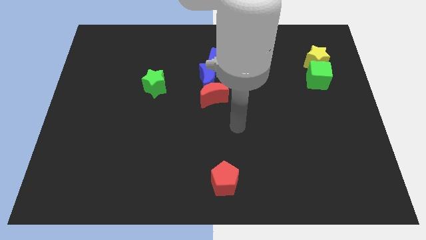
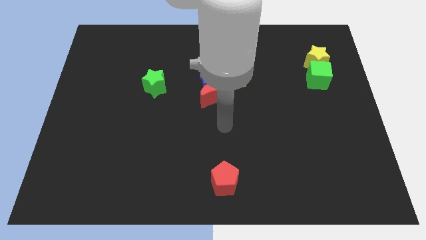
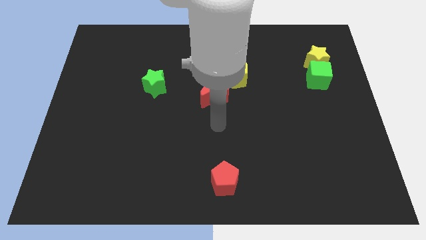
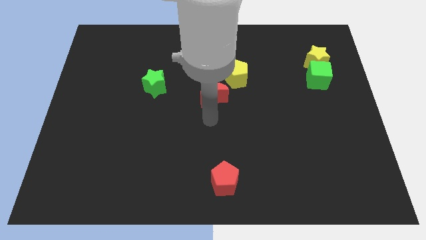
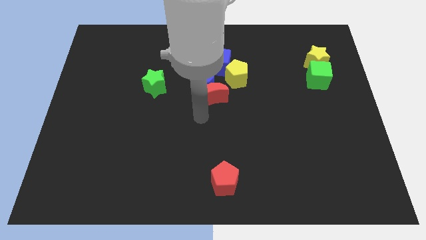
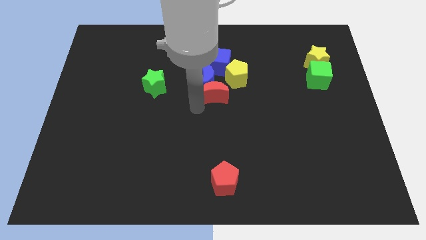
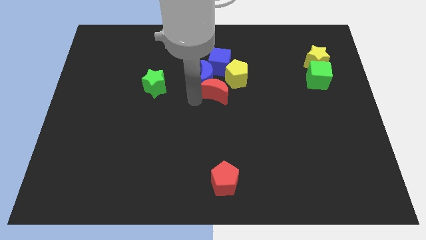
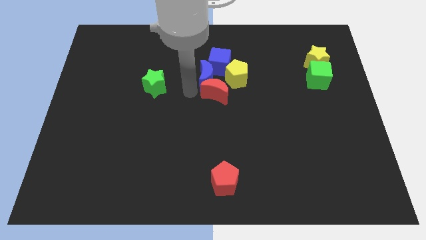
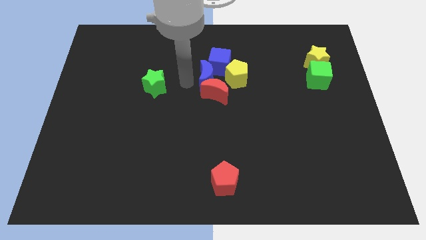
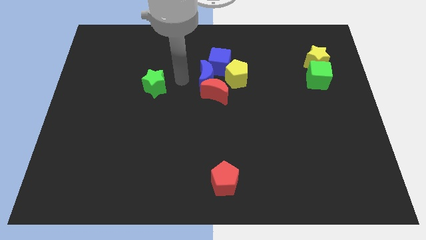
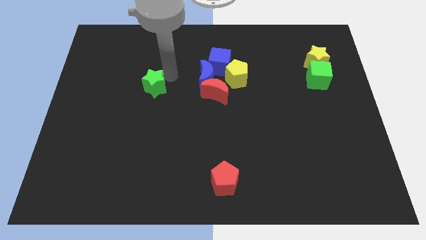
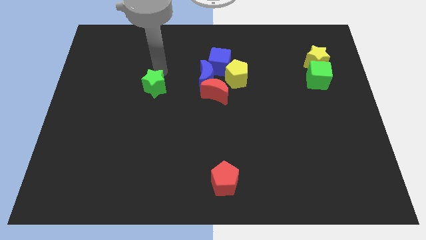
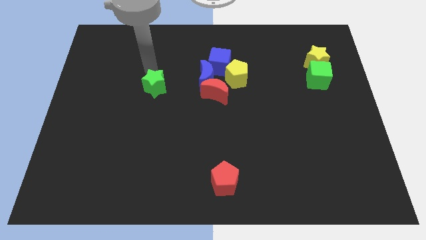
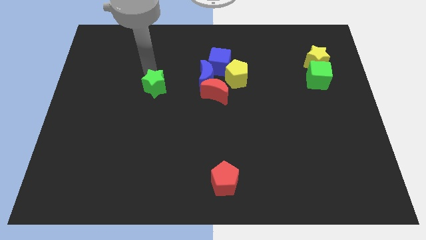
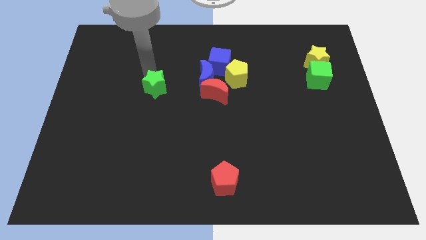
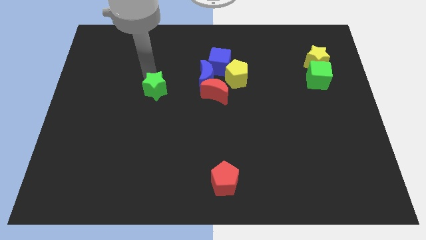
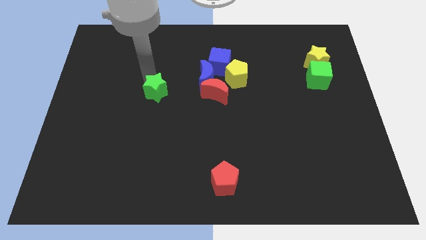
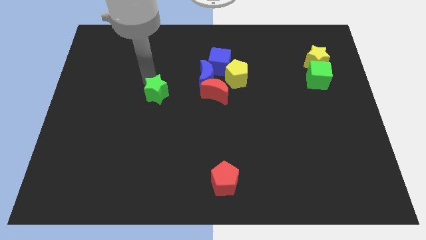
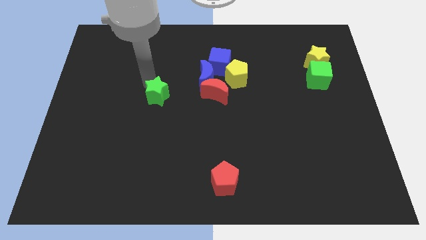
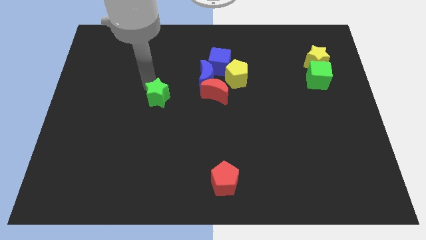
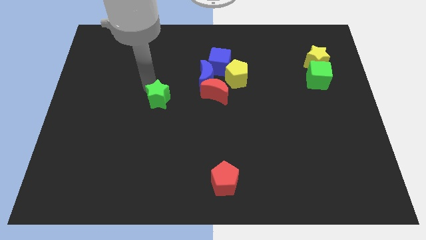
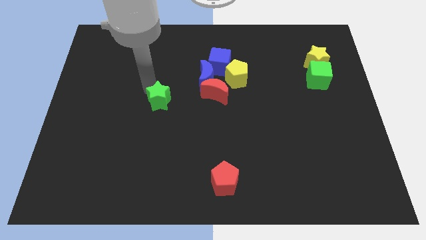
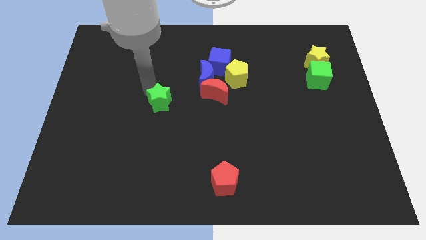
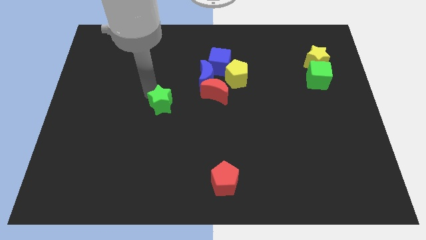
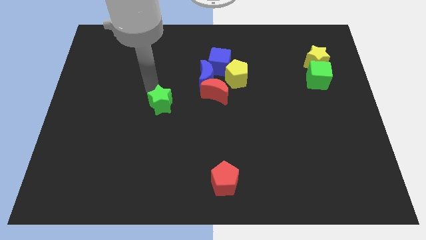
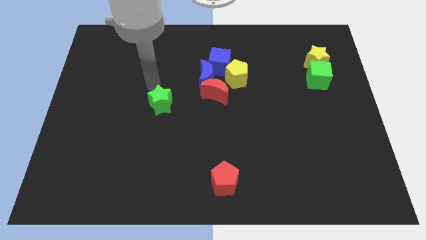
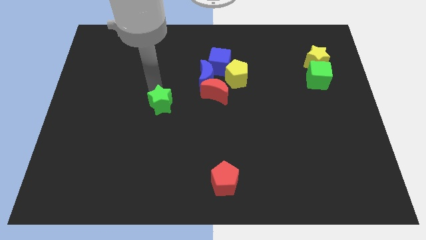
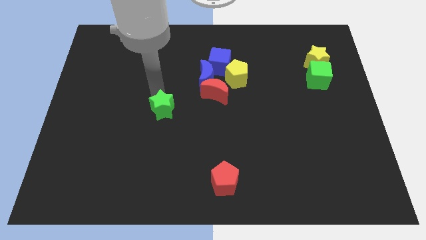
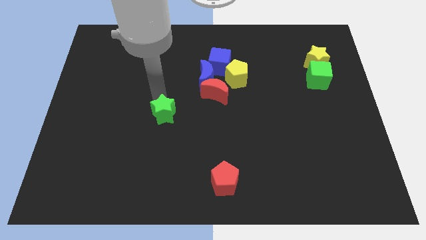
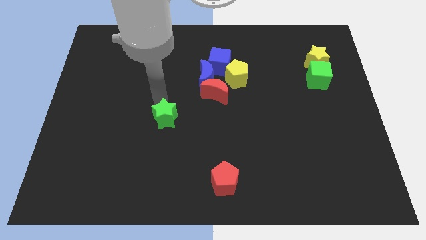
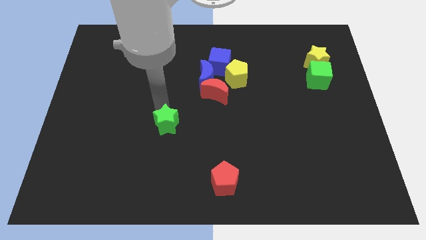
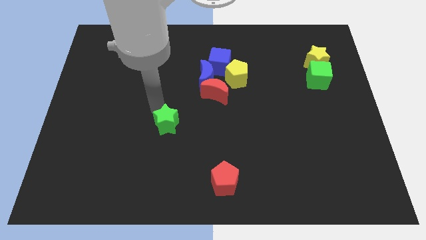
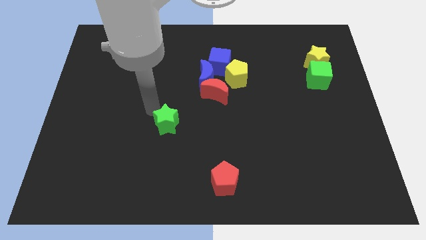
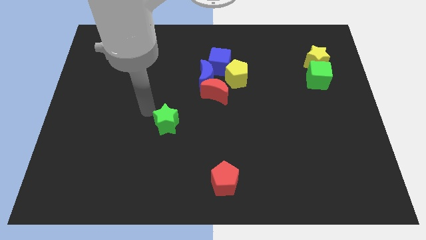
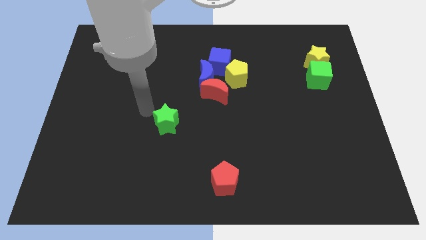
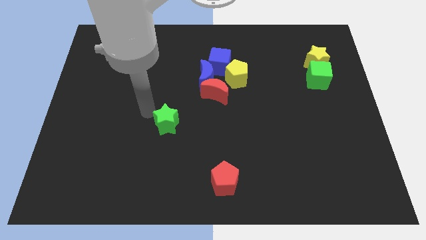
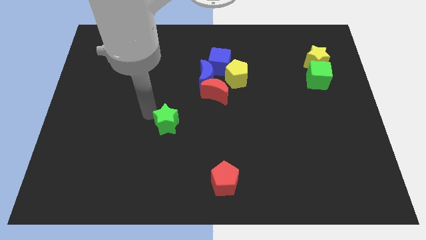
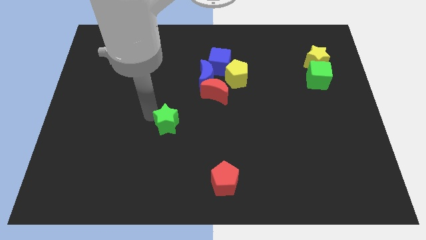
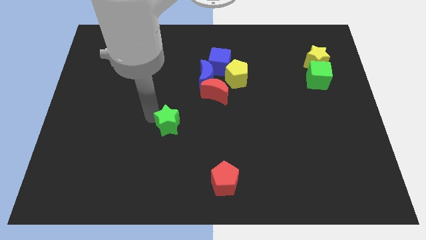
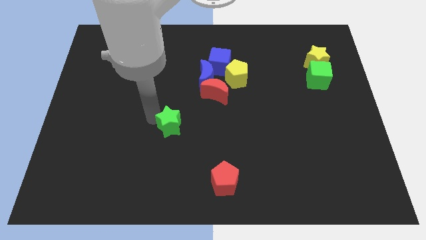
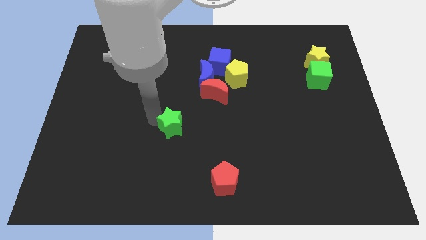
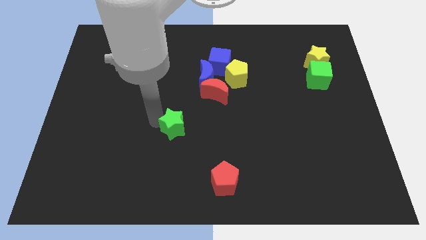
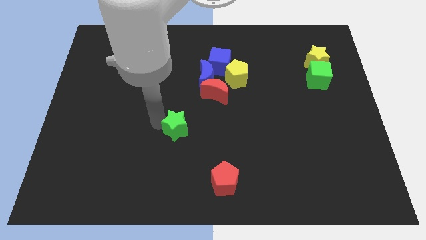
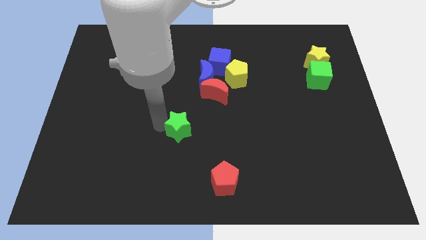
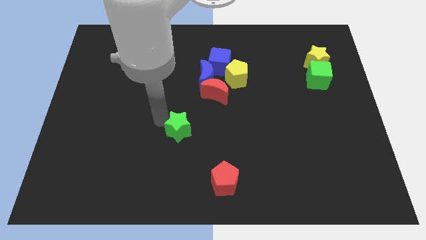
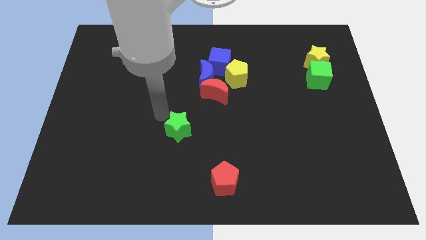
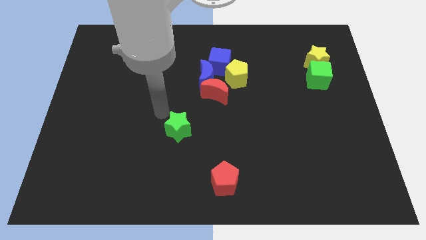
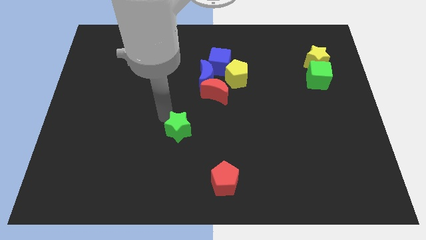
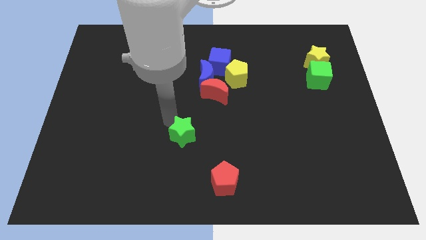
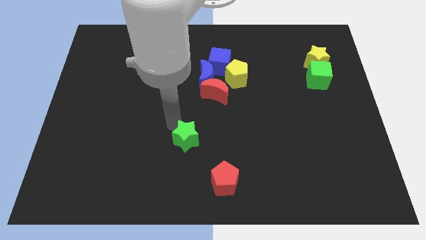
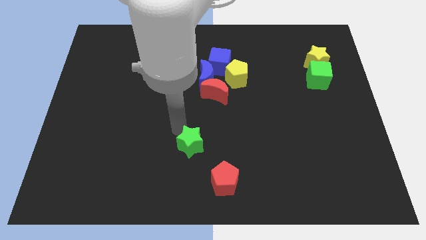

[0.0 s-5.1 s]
slide the green star to the top left side of the red pentagon

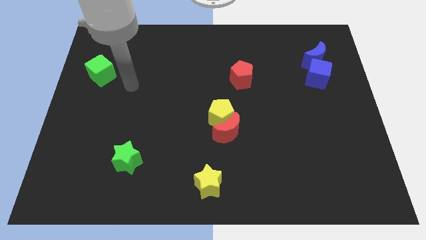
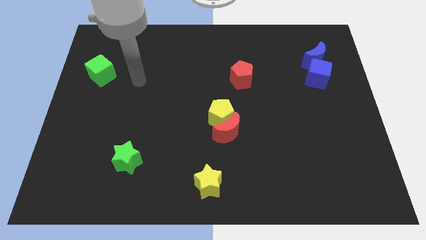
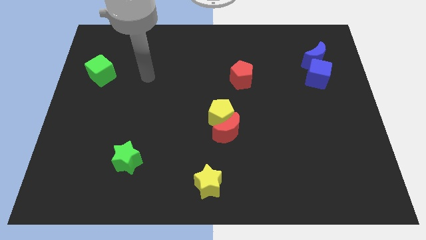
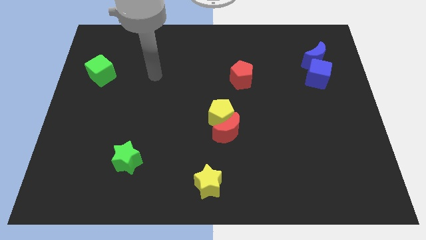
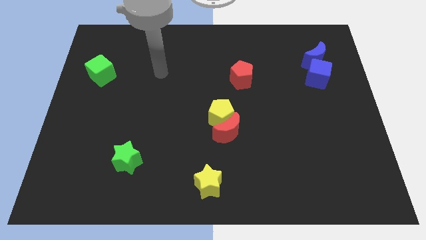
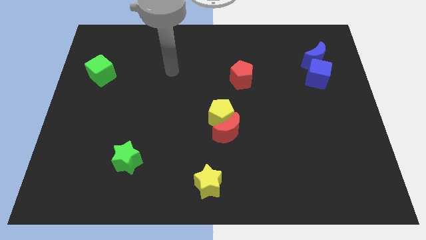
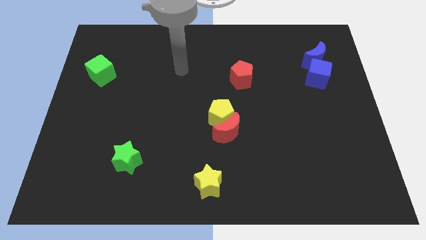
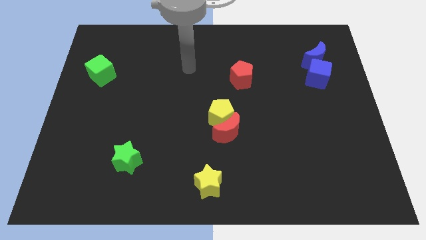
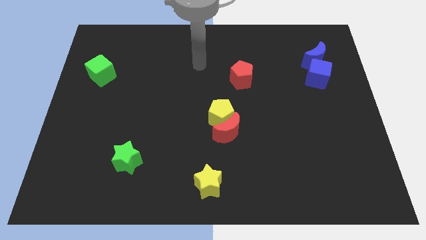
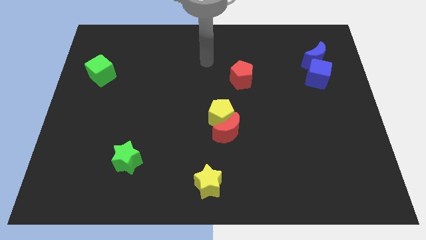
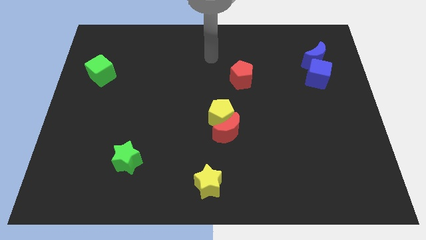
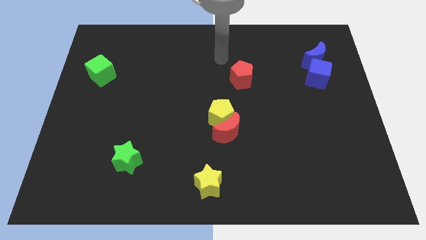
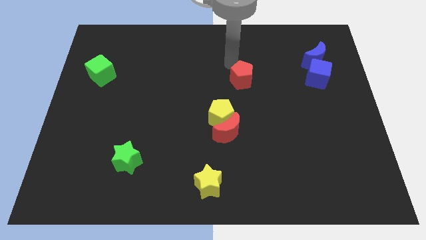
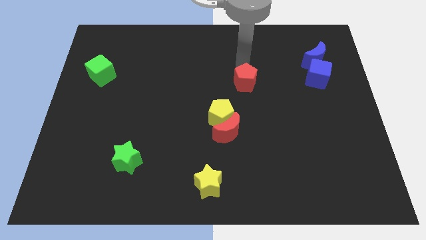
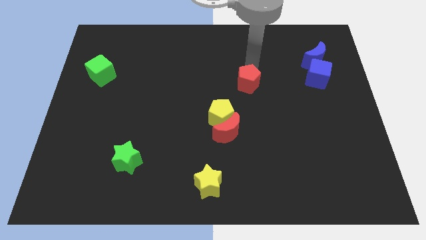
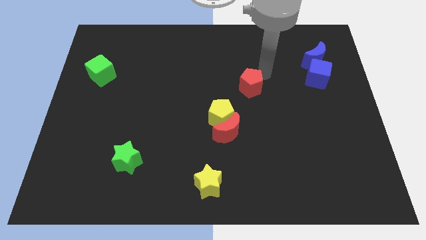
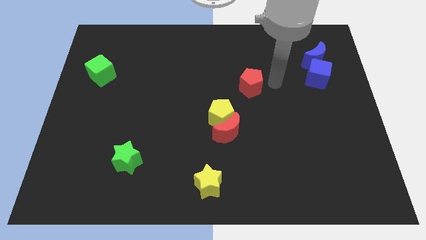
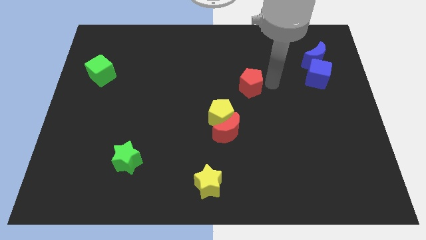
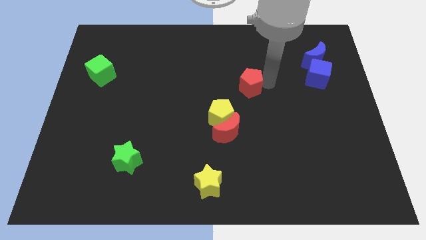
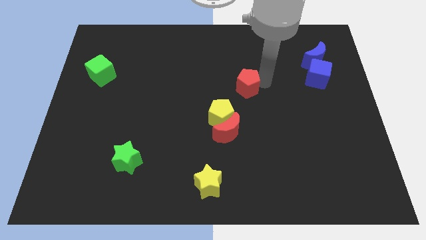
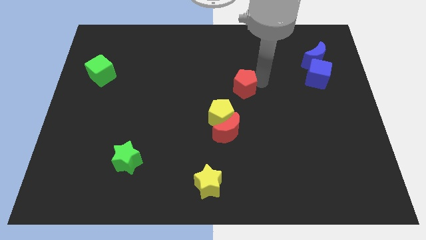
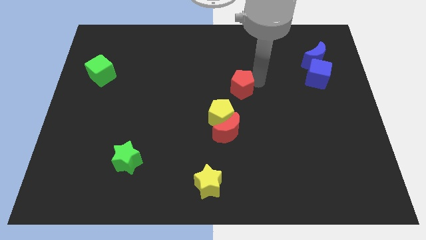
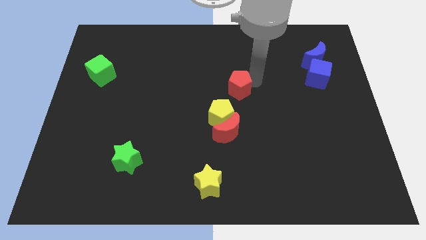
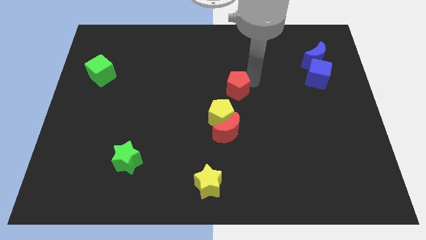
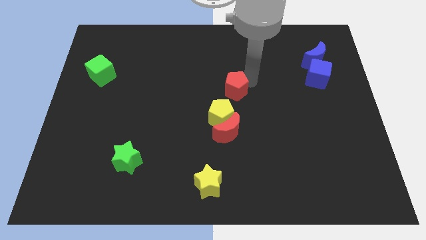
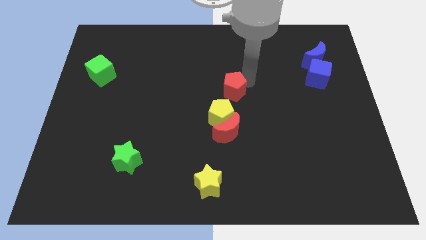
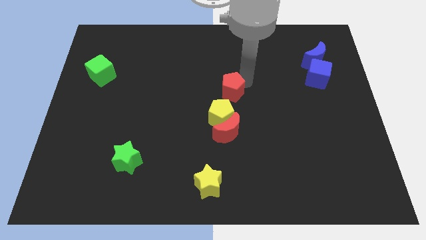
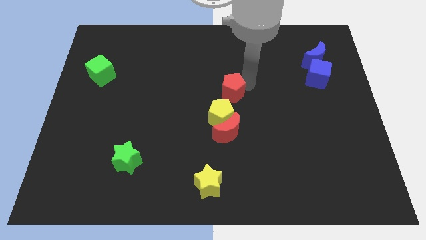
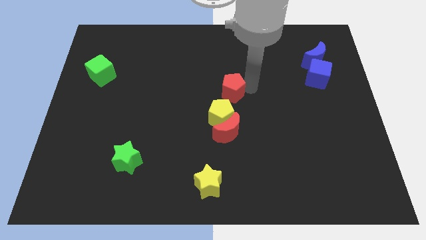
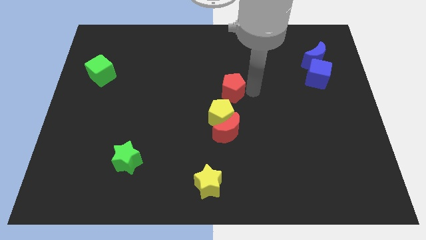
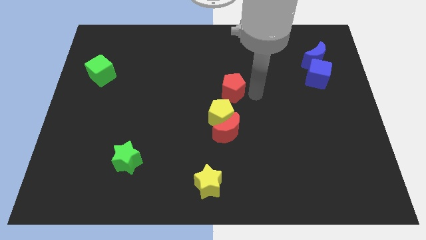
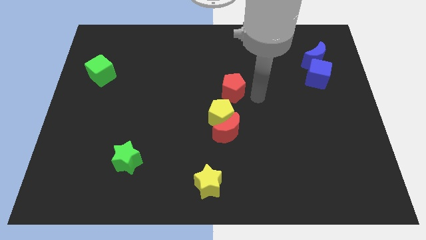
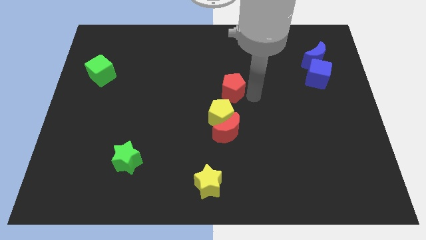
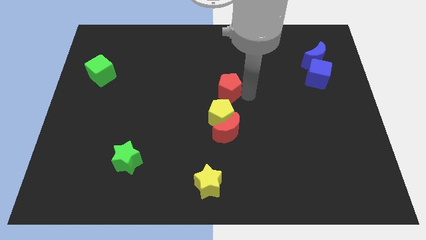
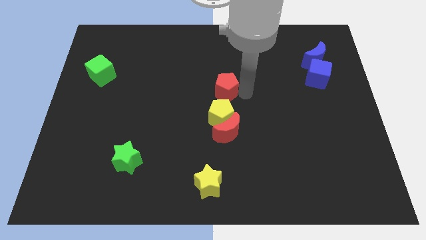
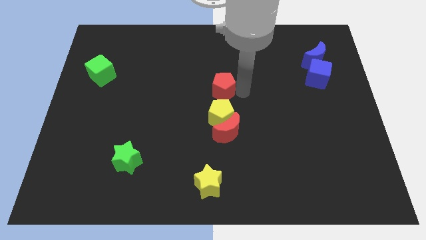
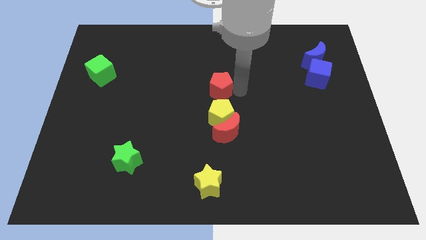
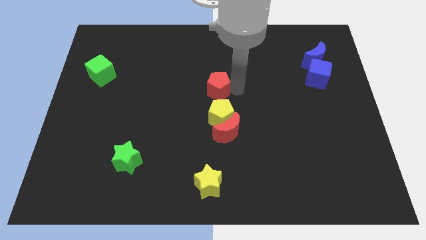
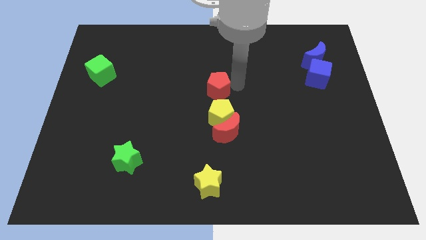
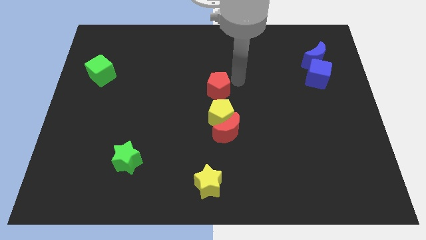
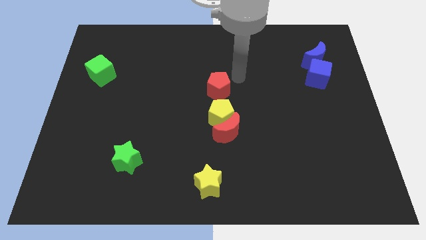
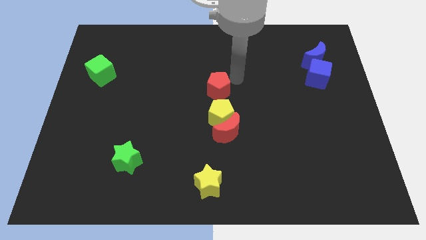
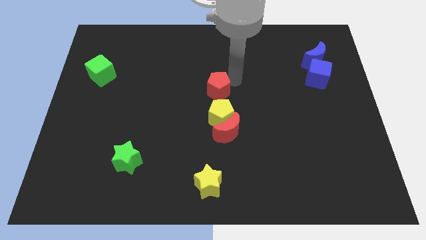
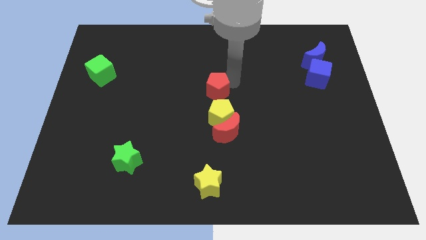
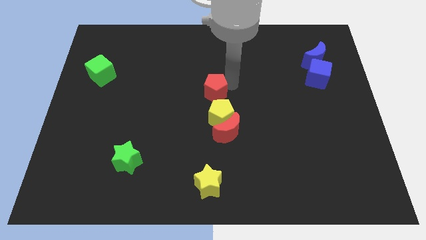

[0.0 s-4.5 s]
push the red pentagon diagonally up and to the left of the yellow pentagon
